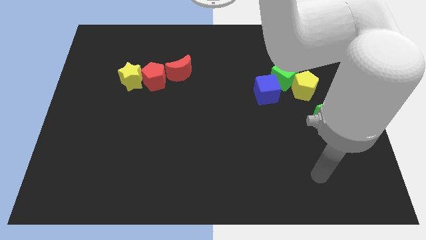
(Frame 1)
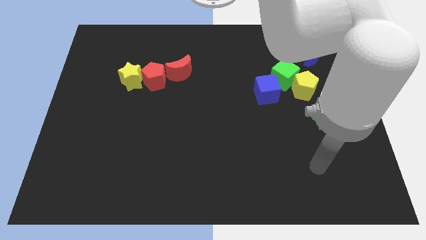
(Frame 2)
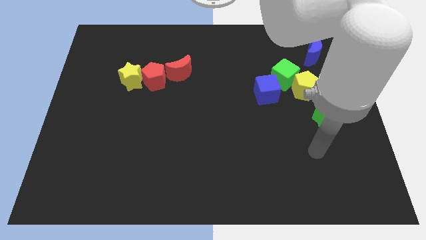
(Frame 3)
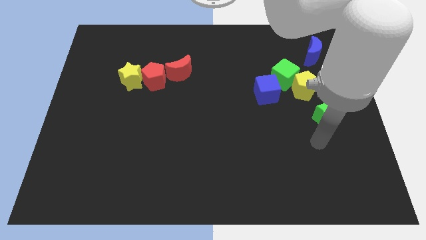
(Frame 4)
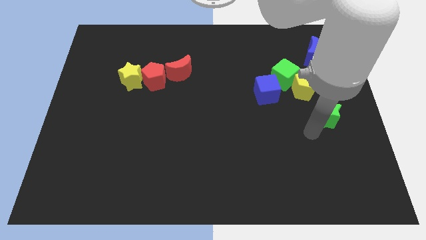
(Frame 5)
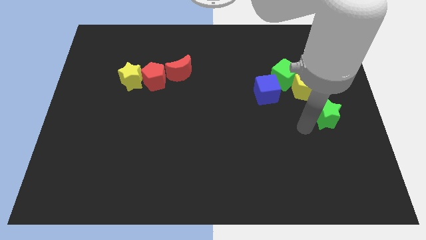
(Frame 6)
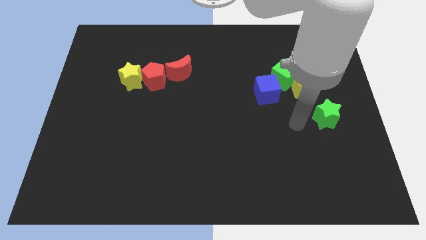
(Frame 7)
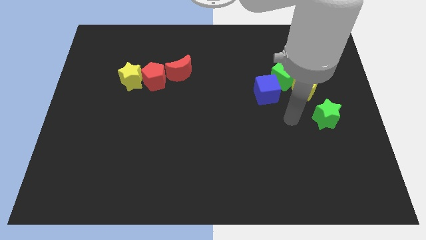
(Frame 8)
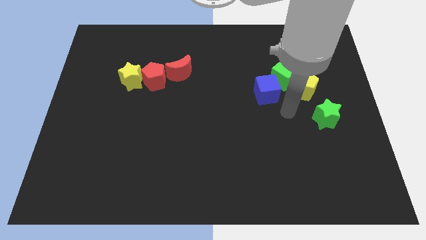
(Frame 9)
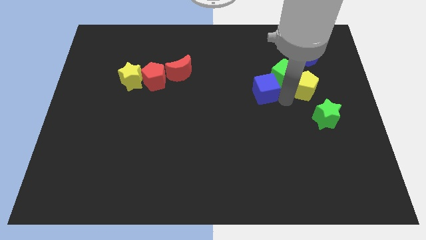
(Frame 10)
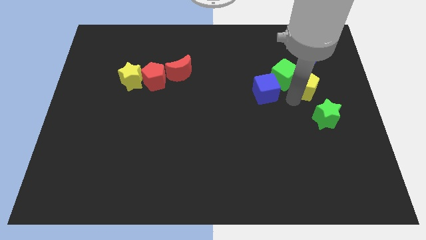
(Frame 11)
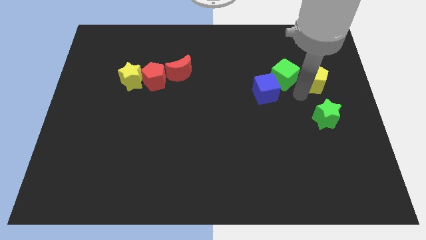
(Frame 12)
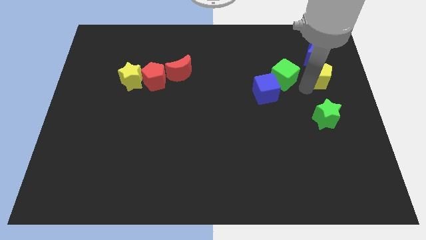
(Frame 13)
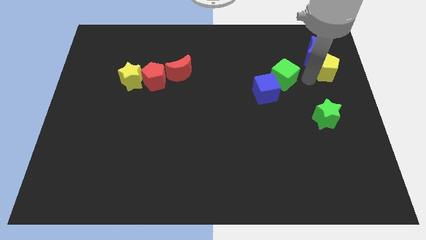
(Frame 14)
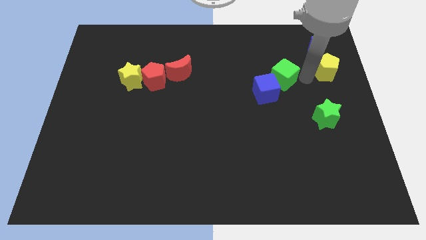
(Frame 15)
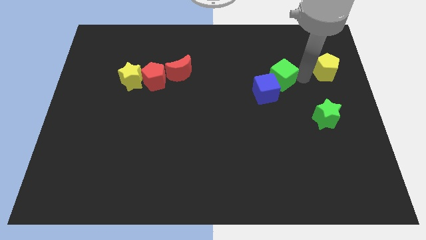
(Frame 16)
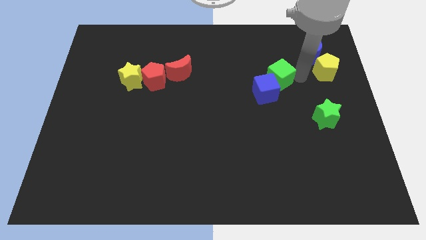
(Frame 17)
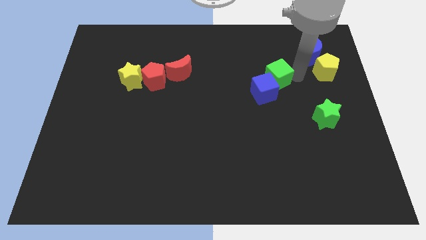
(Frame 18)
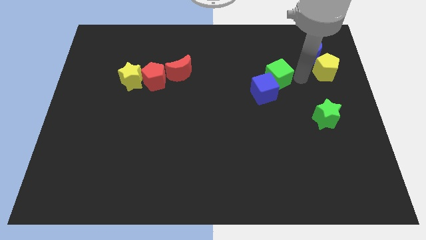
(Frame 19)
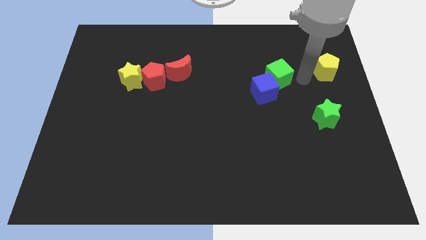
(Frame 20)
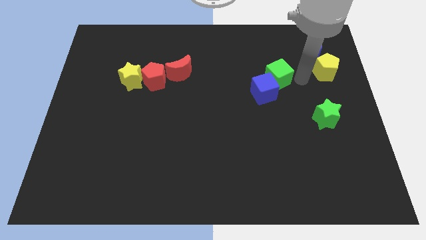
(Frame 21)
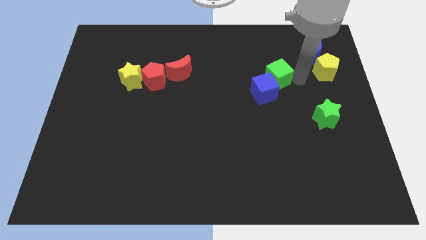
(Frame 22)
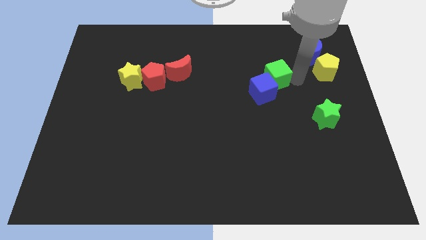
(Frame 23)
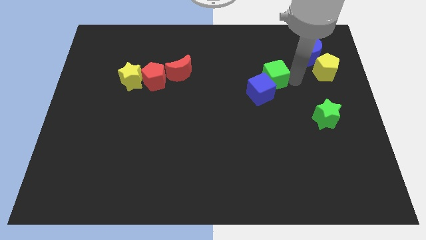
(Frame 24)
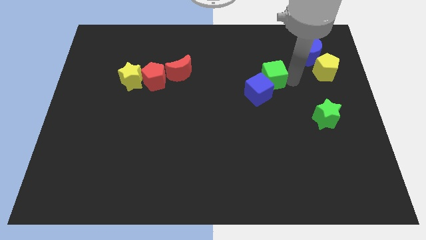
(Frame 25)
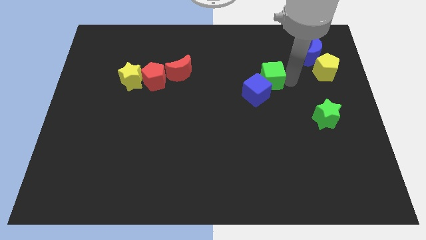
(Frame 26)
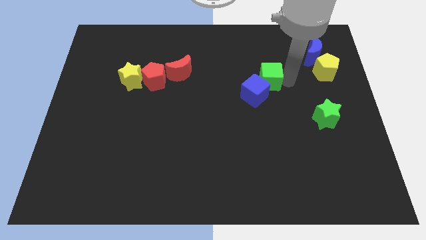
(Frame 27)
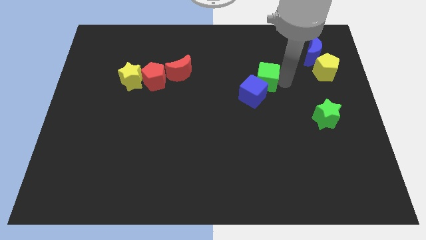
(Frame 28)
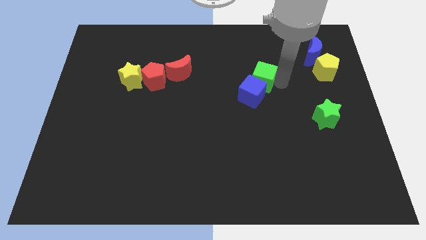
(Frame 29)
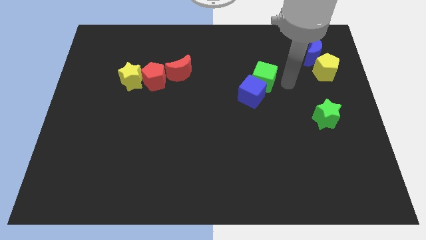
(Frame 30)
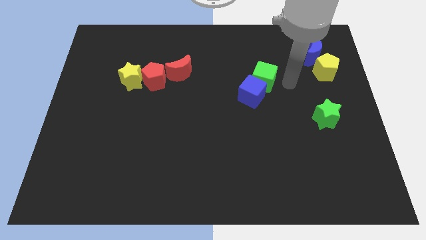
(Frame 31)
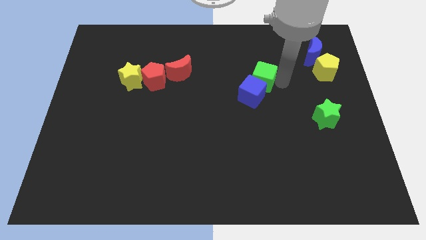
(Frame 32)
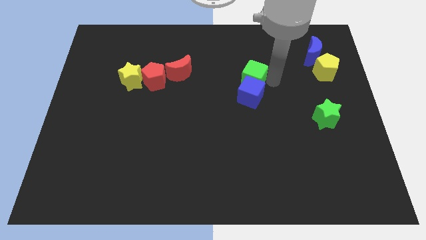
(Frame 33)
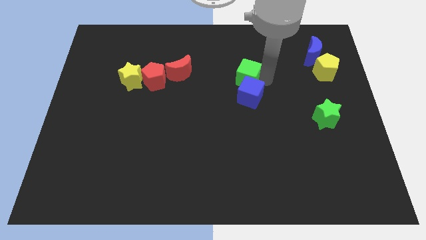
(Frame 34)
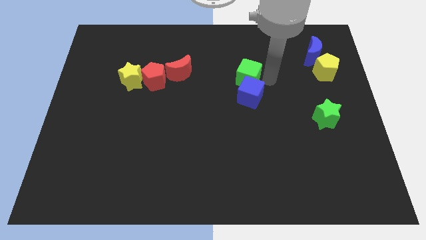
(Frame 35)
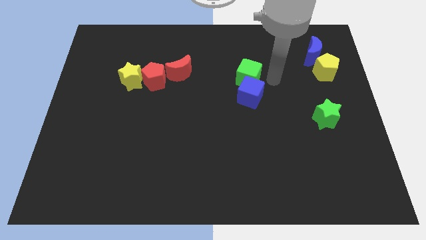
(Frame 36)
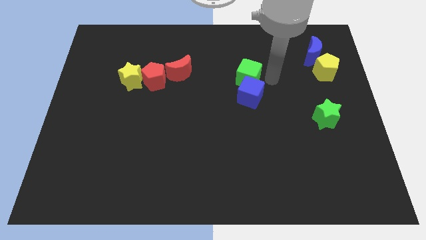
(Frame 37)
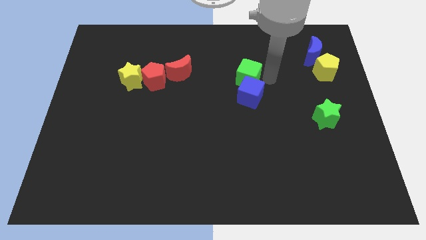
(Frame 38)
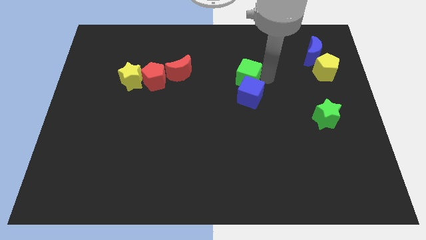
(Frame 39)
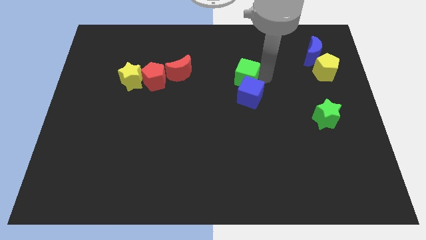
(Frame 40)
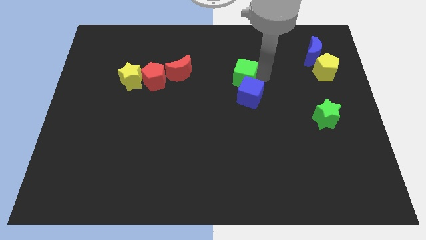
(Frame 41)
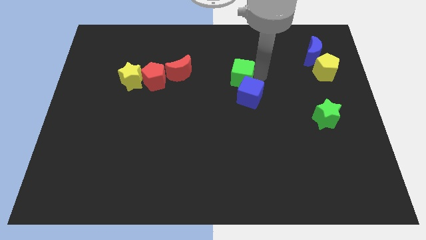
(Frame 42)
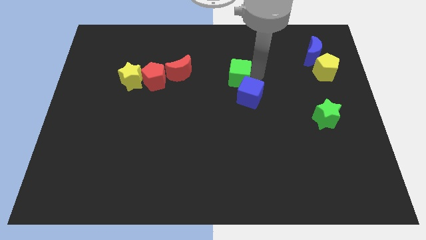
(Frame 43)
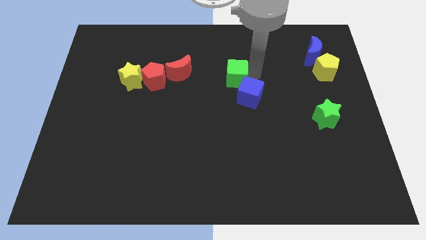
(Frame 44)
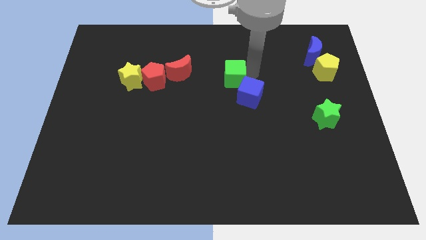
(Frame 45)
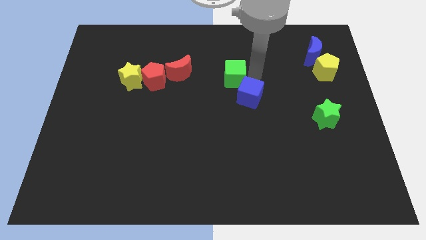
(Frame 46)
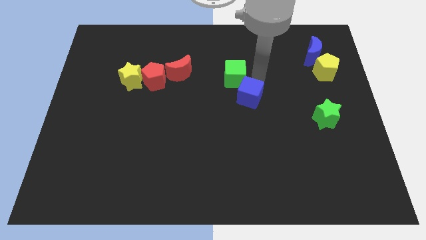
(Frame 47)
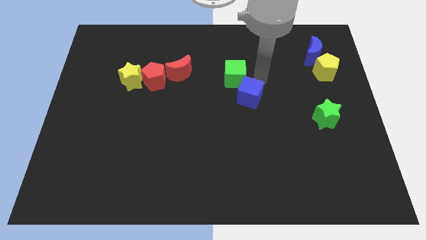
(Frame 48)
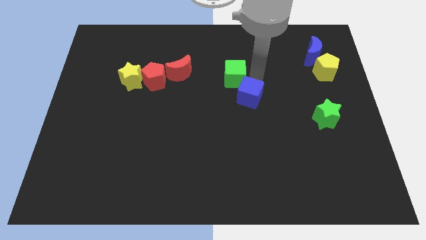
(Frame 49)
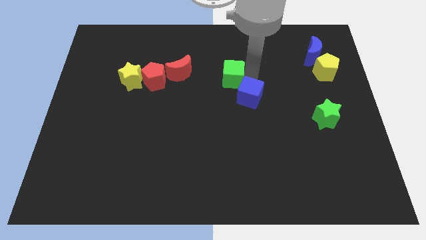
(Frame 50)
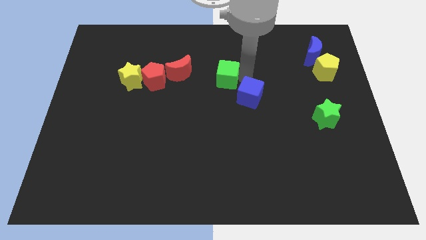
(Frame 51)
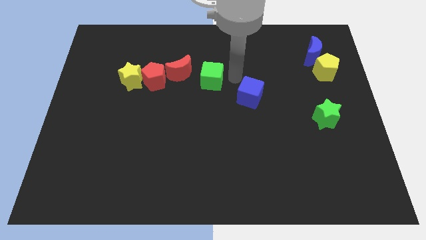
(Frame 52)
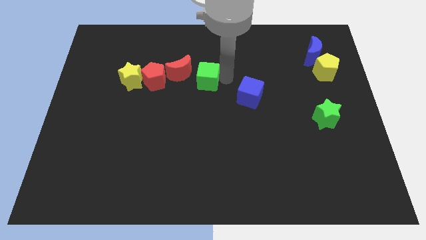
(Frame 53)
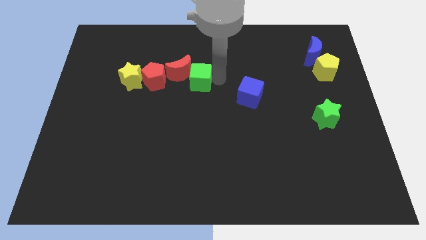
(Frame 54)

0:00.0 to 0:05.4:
slide the green cube close to the red moon

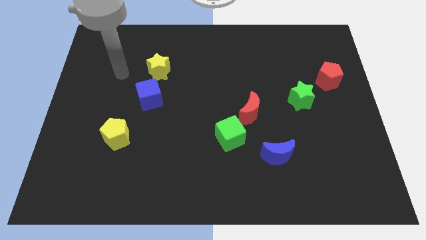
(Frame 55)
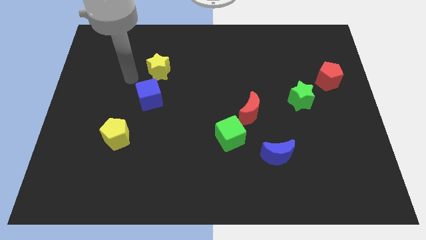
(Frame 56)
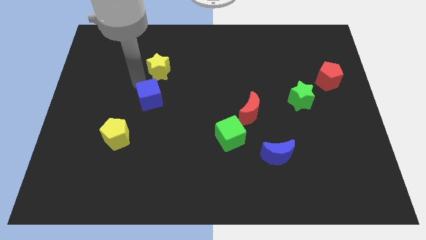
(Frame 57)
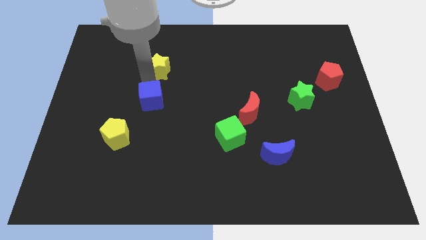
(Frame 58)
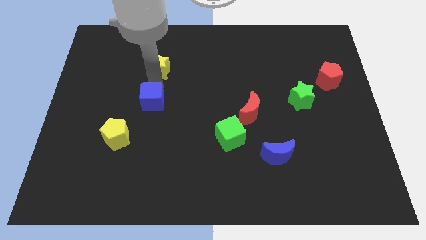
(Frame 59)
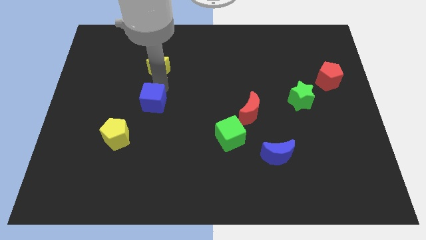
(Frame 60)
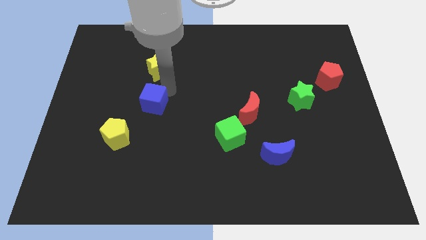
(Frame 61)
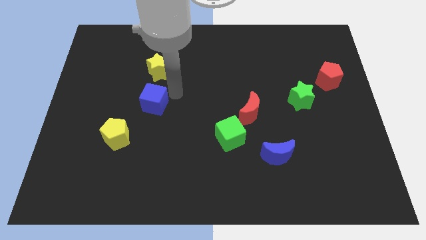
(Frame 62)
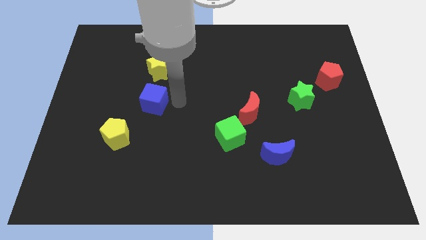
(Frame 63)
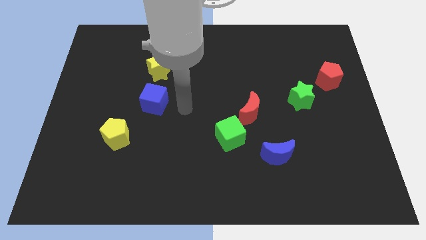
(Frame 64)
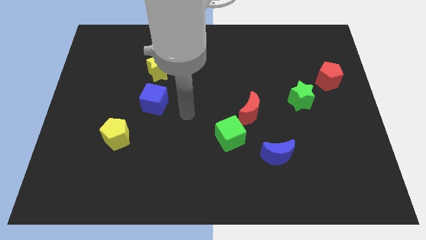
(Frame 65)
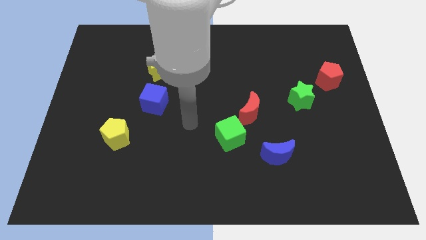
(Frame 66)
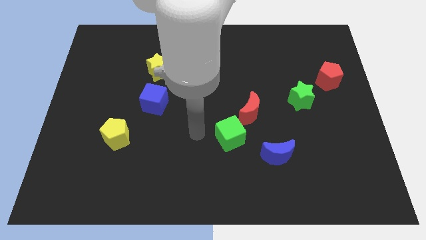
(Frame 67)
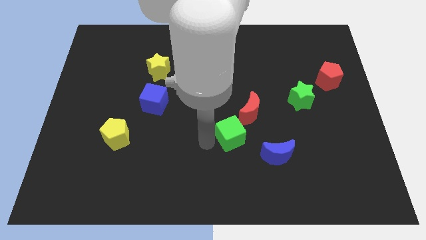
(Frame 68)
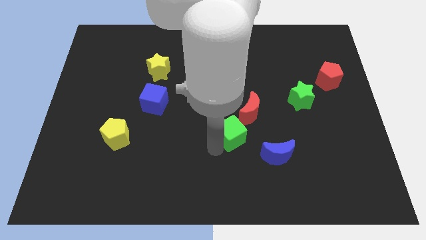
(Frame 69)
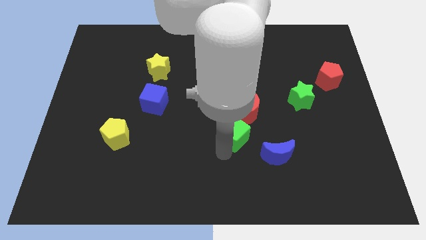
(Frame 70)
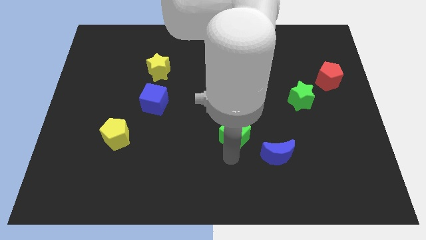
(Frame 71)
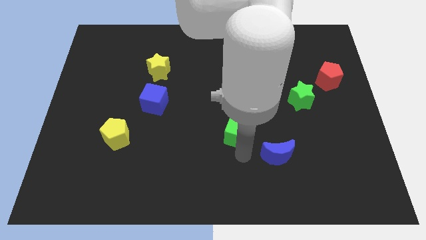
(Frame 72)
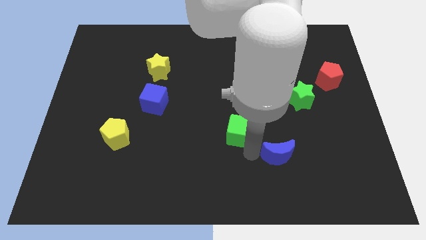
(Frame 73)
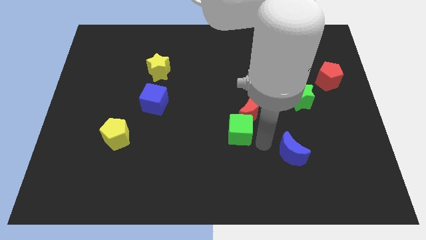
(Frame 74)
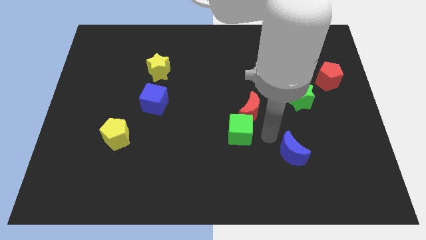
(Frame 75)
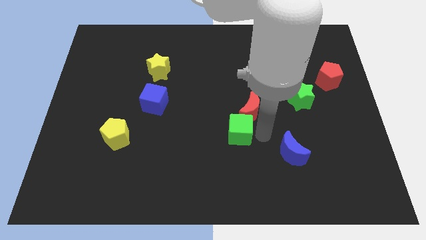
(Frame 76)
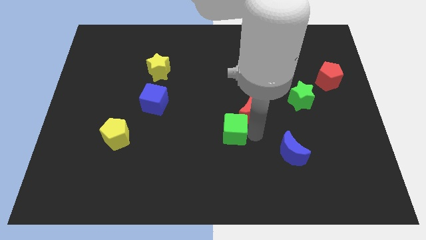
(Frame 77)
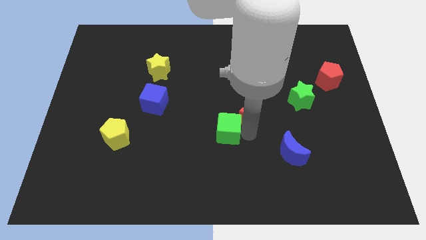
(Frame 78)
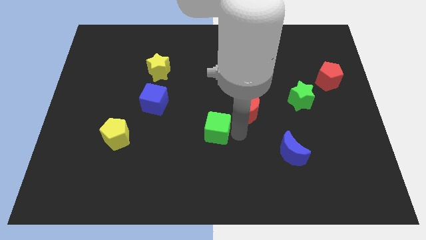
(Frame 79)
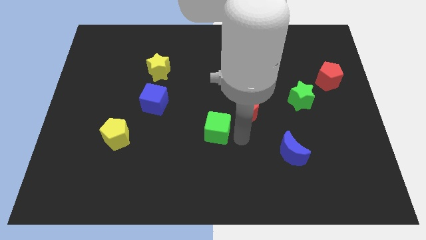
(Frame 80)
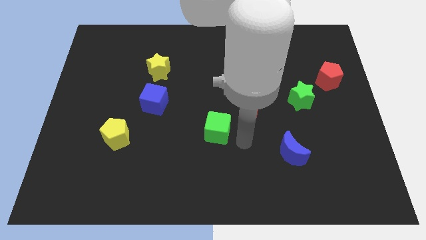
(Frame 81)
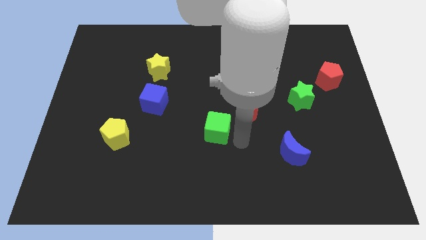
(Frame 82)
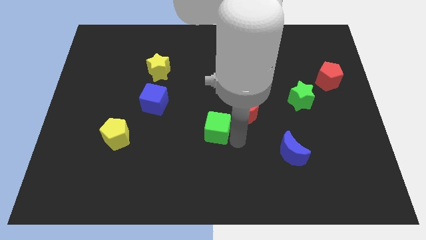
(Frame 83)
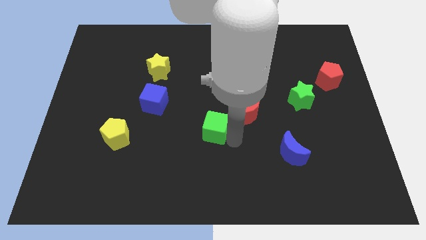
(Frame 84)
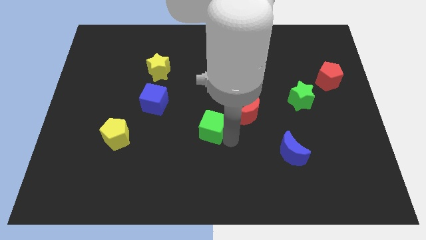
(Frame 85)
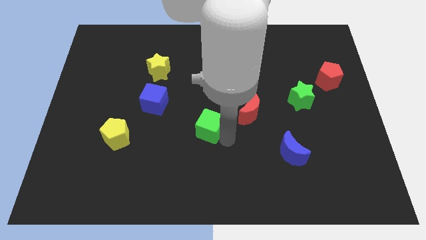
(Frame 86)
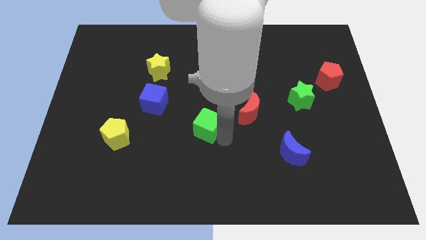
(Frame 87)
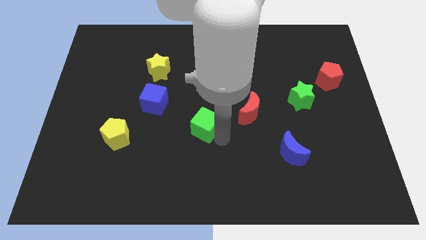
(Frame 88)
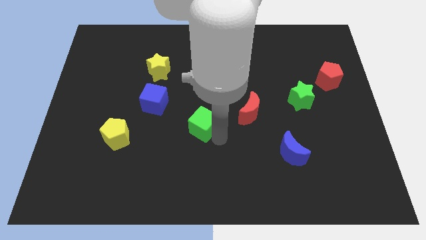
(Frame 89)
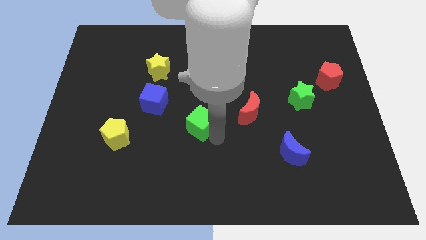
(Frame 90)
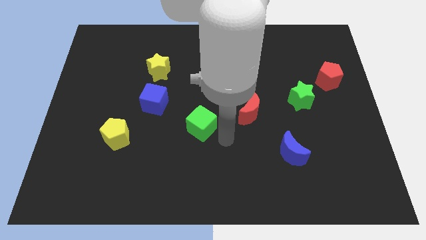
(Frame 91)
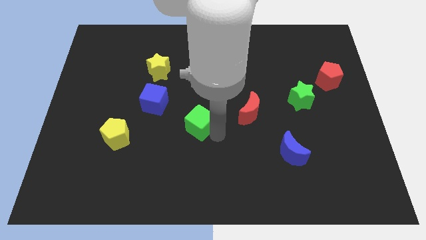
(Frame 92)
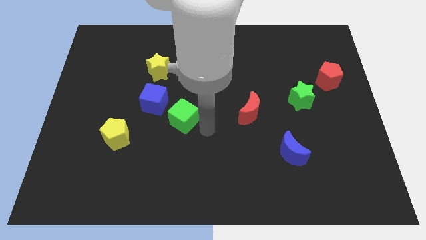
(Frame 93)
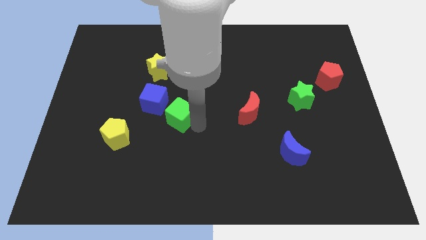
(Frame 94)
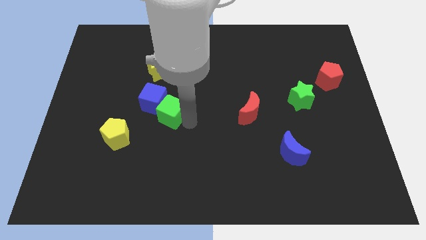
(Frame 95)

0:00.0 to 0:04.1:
put the green cube to the blue cube
